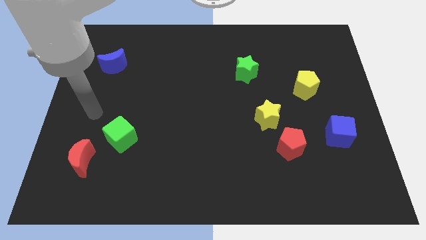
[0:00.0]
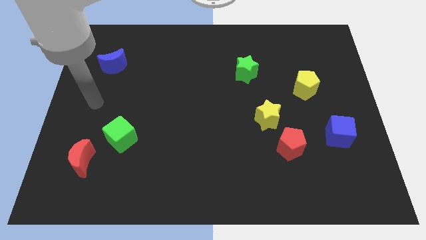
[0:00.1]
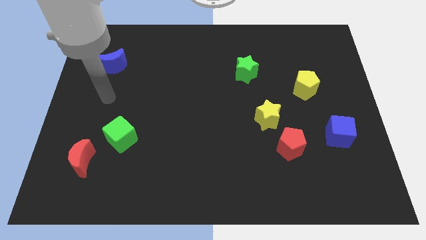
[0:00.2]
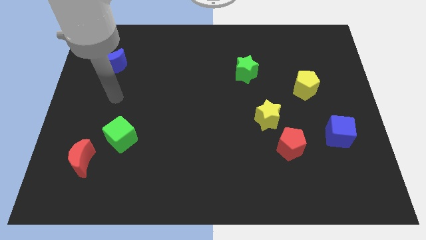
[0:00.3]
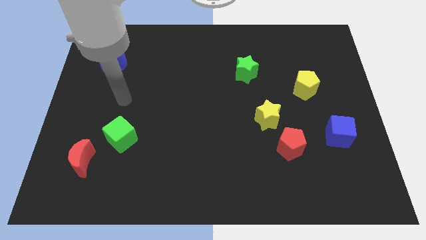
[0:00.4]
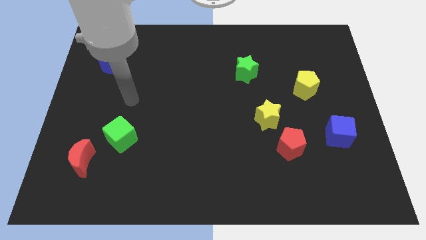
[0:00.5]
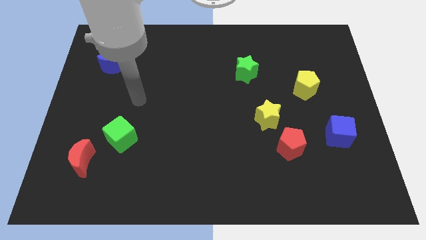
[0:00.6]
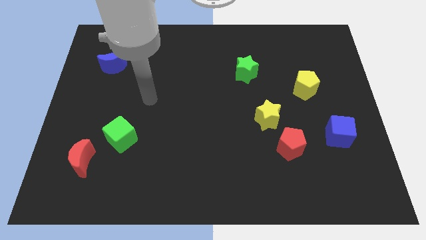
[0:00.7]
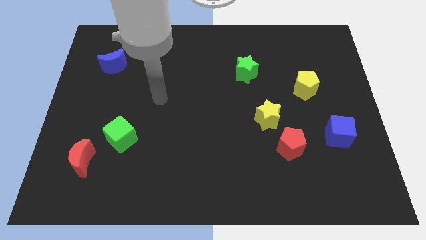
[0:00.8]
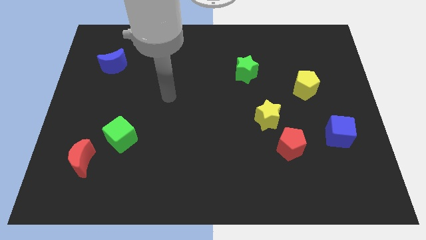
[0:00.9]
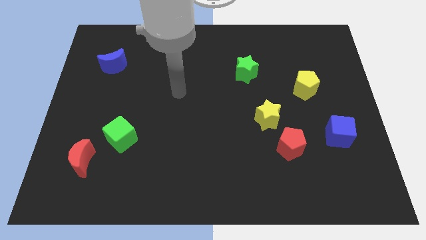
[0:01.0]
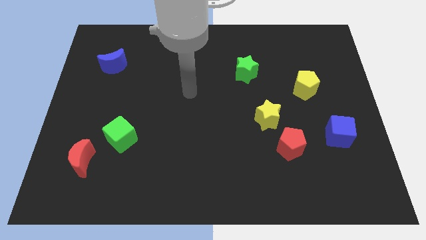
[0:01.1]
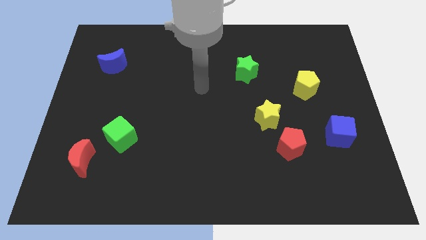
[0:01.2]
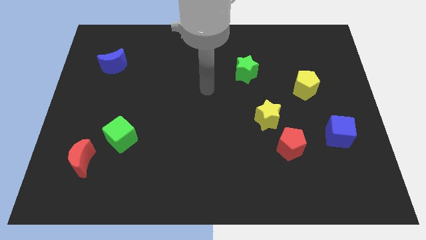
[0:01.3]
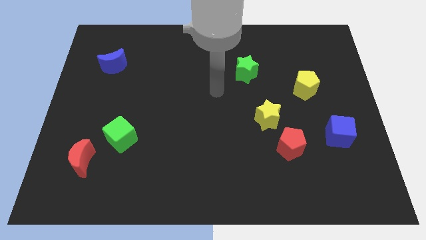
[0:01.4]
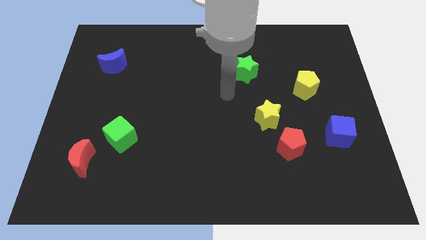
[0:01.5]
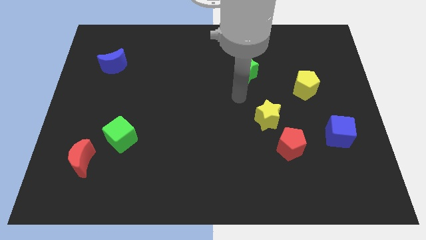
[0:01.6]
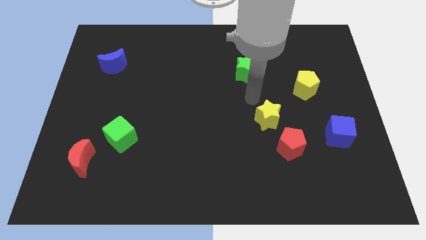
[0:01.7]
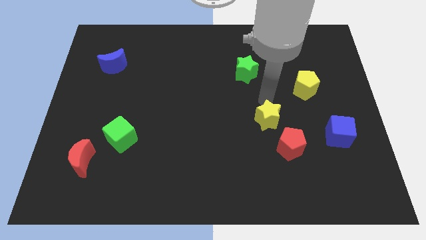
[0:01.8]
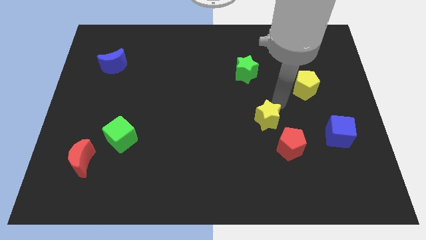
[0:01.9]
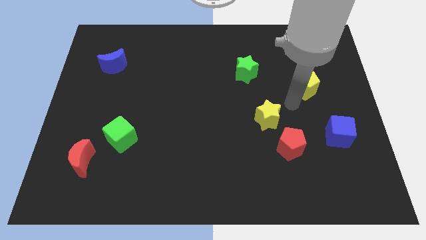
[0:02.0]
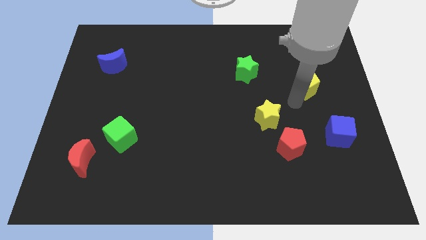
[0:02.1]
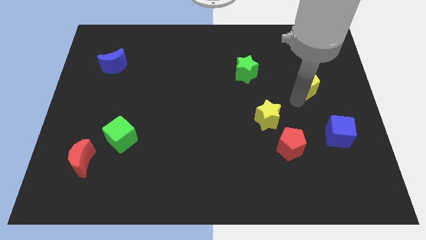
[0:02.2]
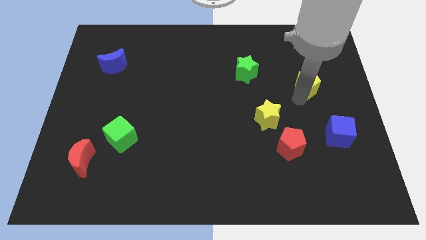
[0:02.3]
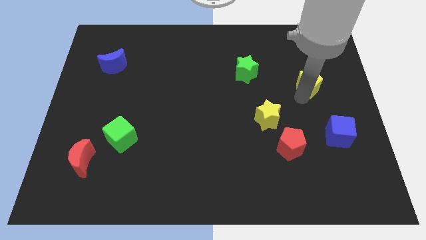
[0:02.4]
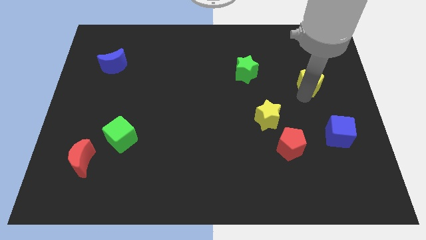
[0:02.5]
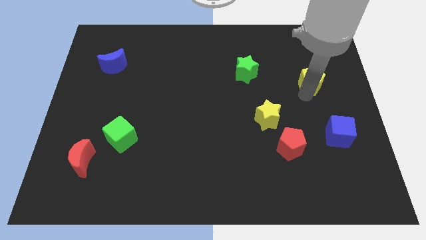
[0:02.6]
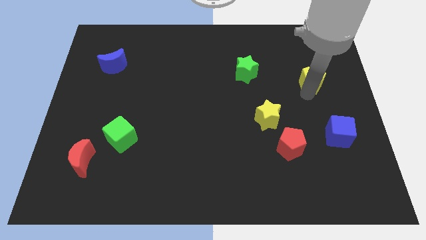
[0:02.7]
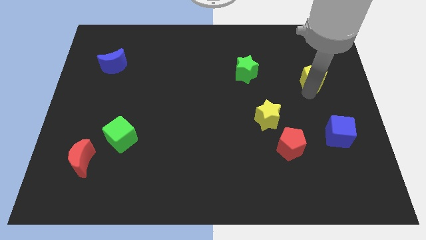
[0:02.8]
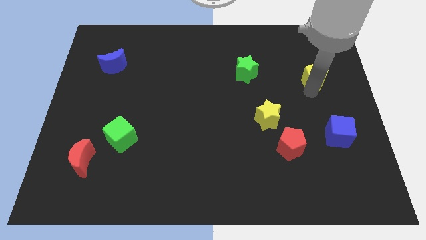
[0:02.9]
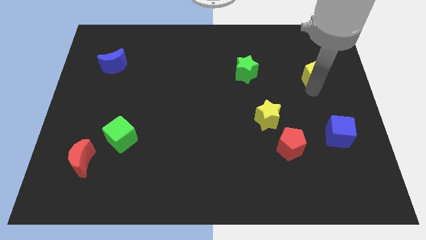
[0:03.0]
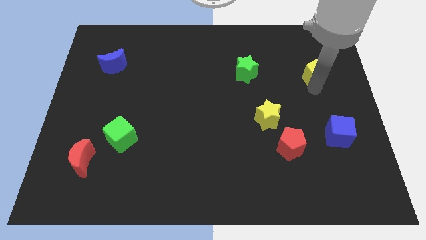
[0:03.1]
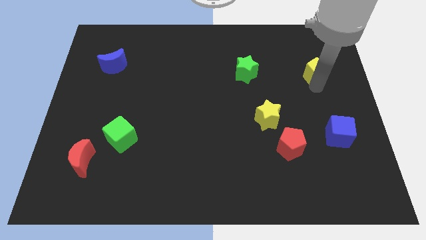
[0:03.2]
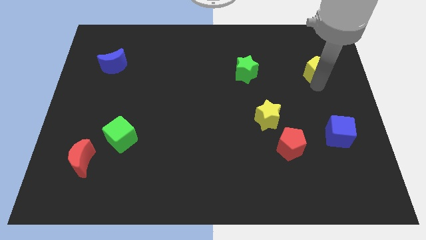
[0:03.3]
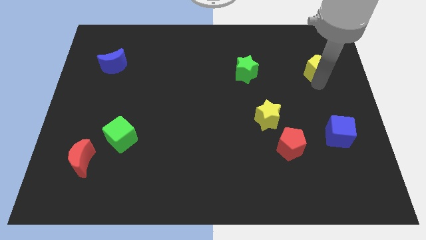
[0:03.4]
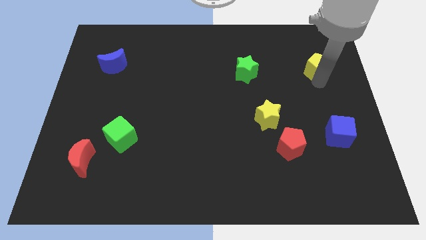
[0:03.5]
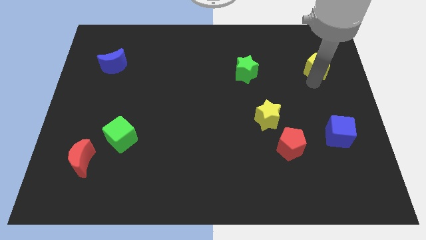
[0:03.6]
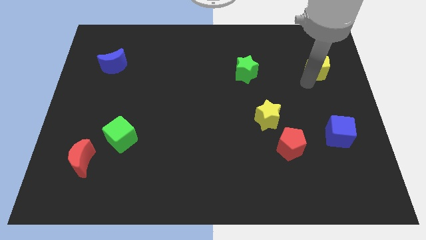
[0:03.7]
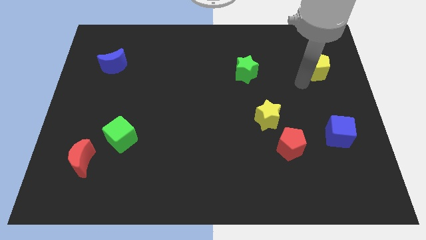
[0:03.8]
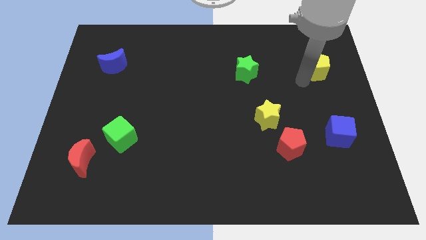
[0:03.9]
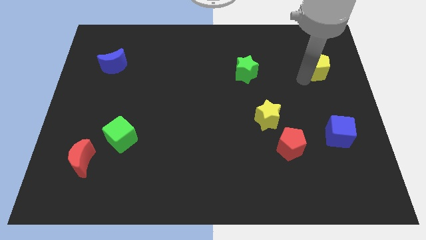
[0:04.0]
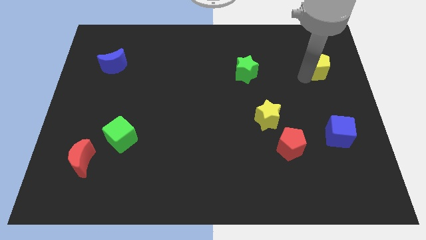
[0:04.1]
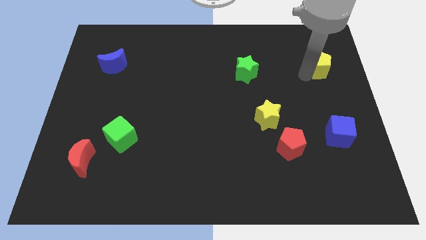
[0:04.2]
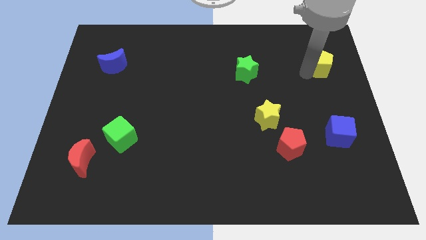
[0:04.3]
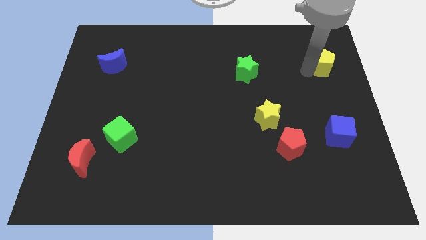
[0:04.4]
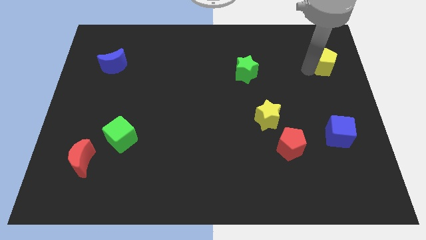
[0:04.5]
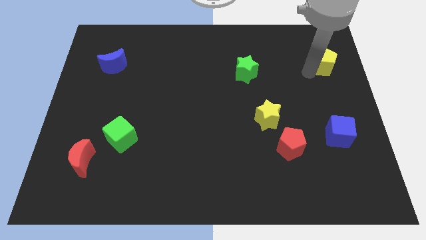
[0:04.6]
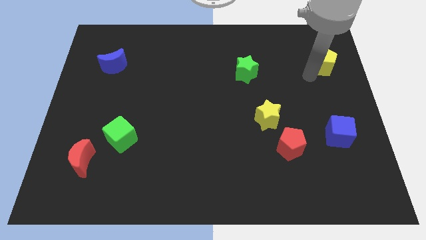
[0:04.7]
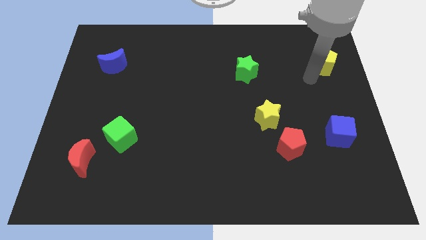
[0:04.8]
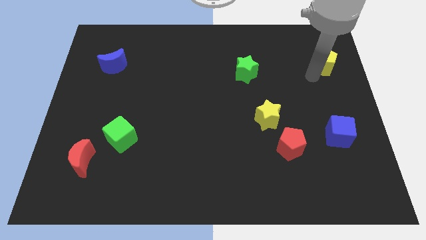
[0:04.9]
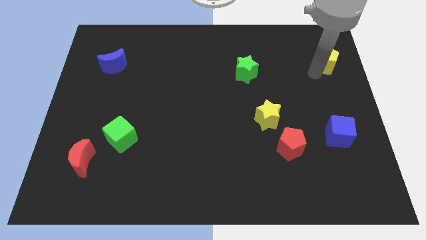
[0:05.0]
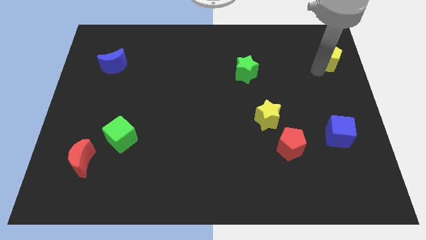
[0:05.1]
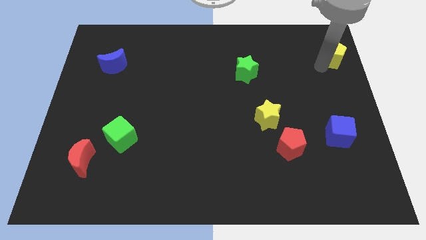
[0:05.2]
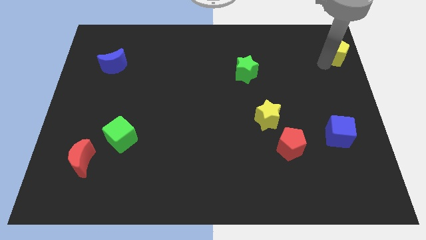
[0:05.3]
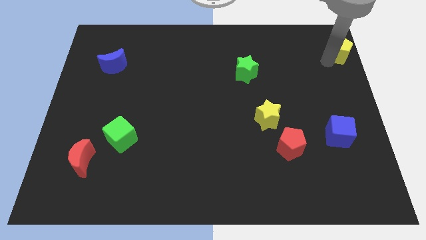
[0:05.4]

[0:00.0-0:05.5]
slide the yellow pentagon to the upper right corner

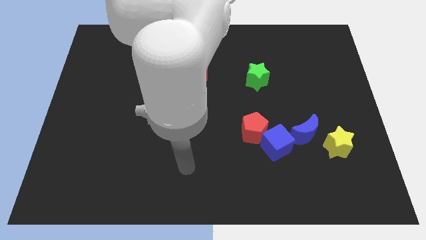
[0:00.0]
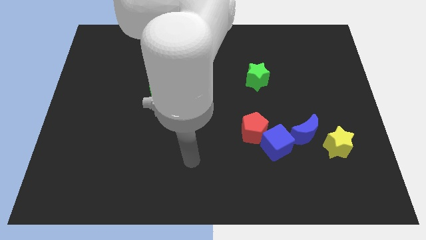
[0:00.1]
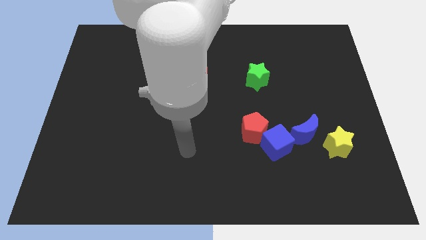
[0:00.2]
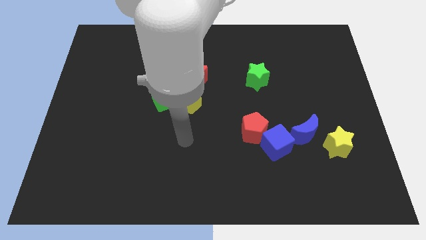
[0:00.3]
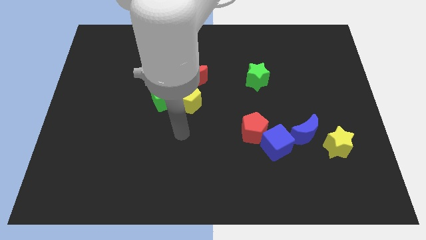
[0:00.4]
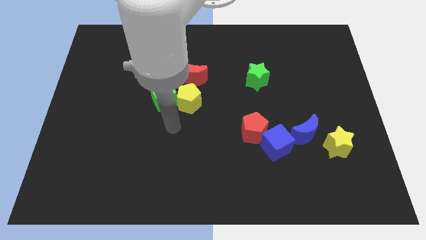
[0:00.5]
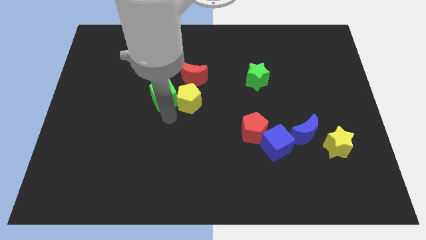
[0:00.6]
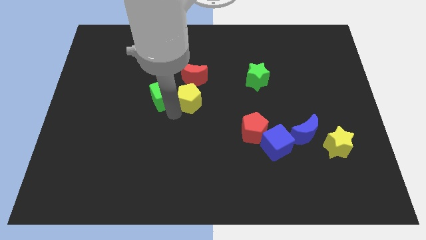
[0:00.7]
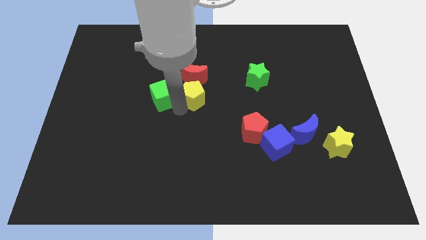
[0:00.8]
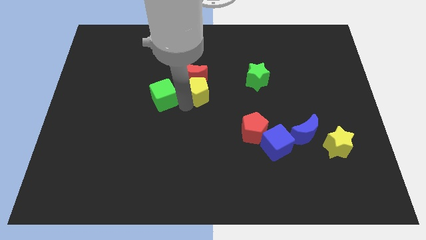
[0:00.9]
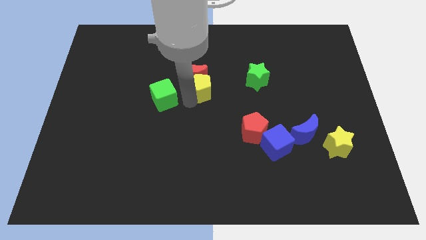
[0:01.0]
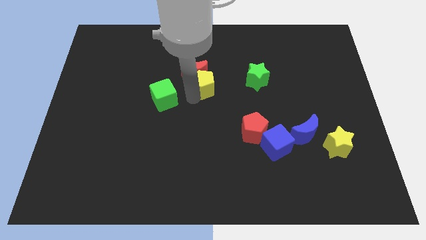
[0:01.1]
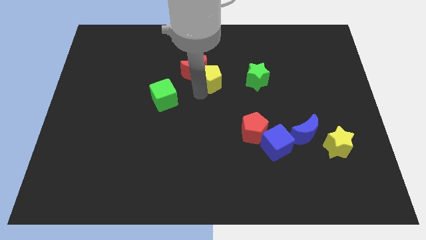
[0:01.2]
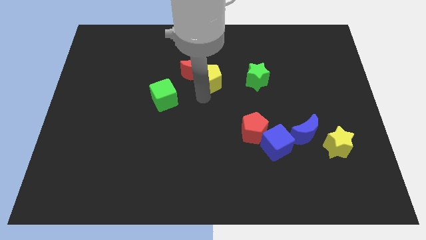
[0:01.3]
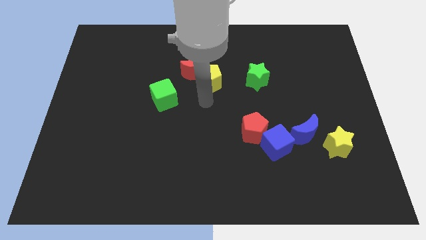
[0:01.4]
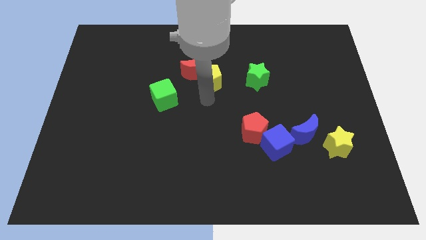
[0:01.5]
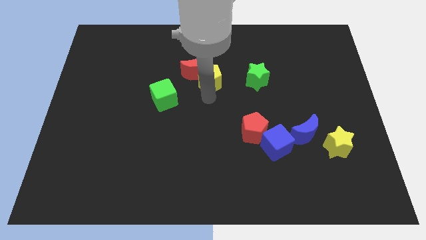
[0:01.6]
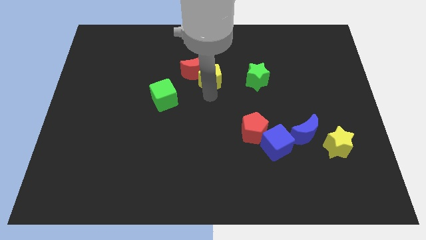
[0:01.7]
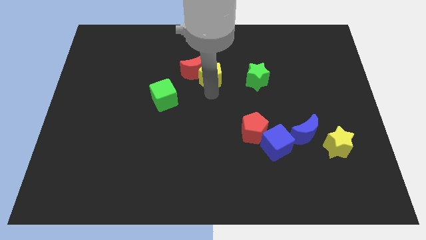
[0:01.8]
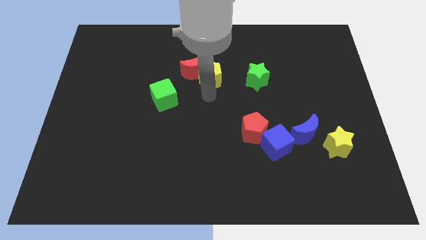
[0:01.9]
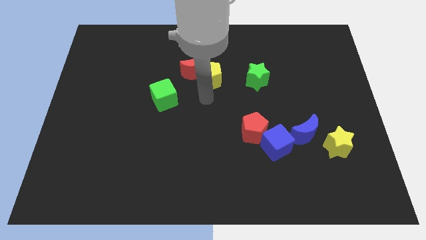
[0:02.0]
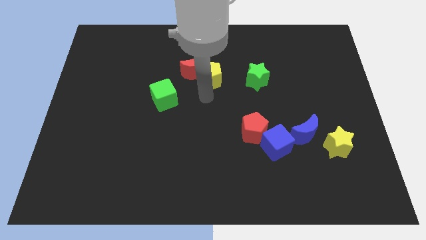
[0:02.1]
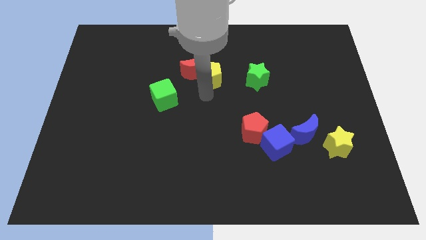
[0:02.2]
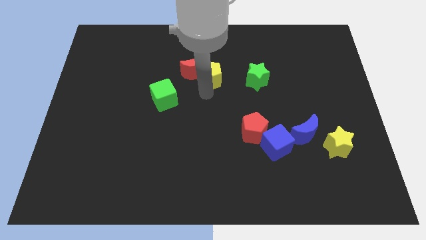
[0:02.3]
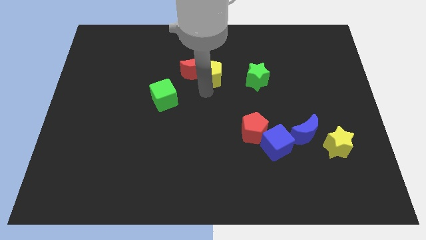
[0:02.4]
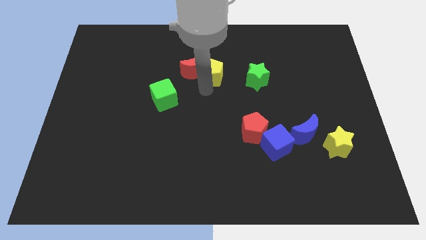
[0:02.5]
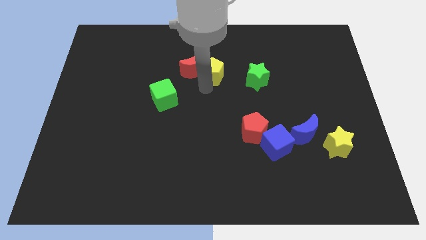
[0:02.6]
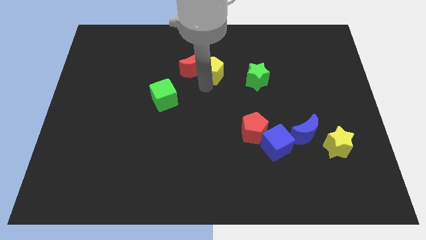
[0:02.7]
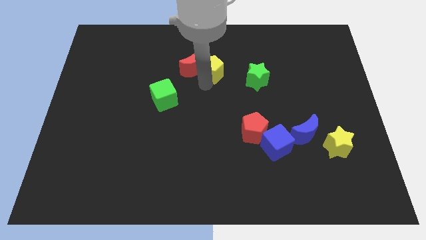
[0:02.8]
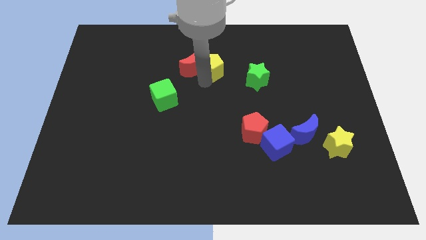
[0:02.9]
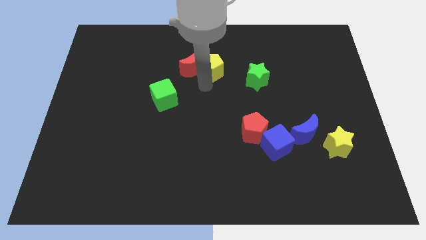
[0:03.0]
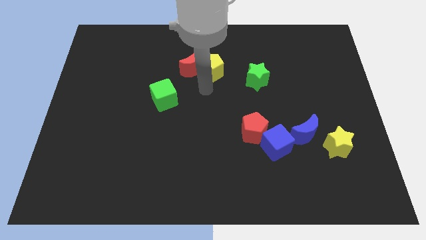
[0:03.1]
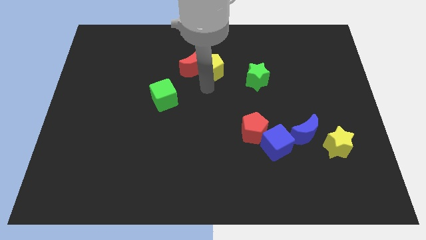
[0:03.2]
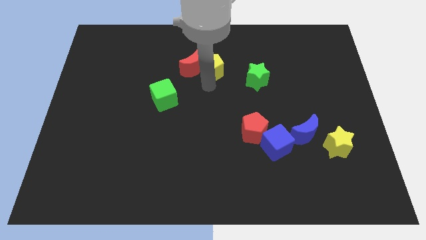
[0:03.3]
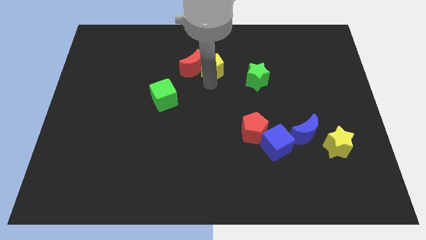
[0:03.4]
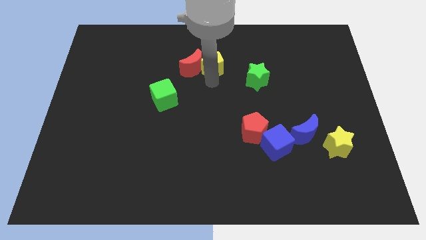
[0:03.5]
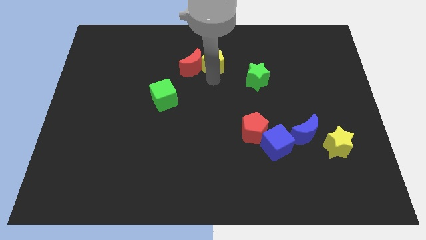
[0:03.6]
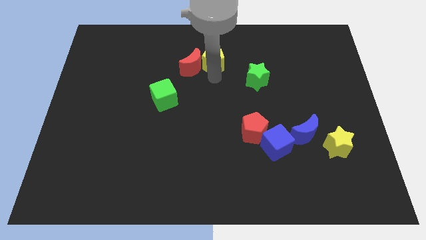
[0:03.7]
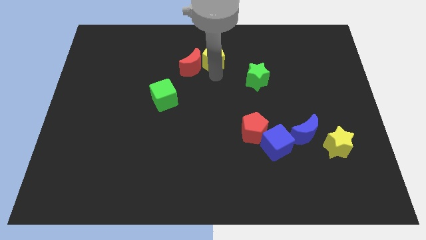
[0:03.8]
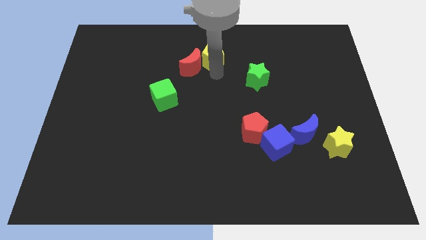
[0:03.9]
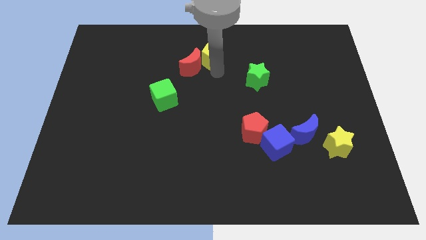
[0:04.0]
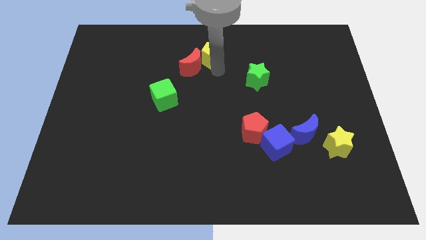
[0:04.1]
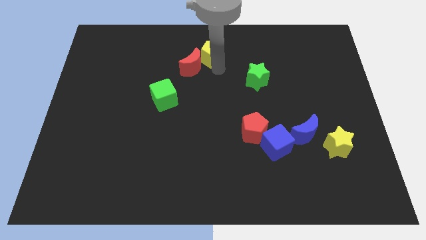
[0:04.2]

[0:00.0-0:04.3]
slide the yellow pentagon to the top side
